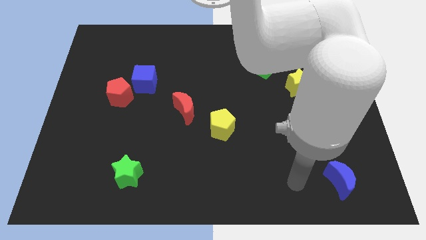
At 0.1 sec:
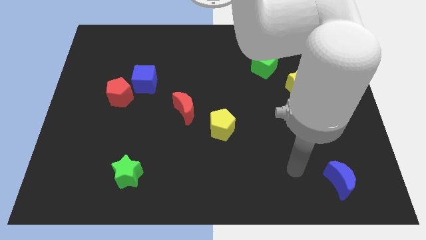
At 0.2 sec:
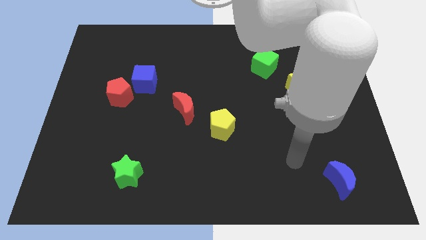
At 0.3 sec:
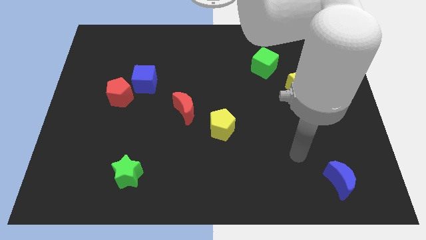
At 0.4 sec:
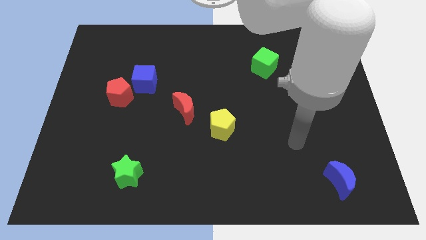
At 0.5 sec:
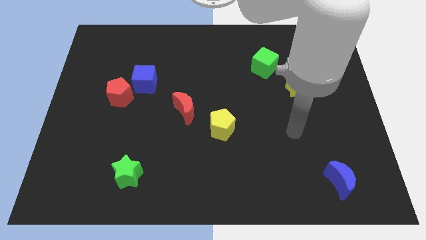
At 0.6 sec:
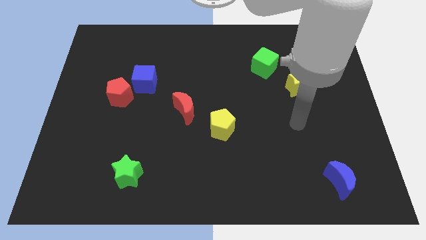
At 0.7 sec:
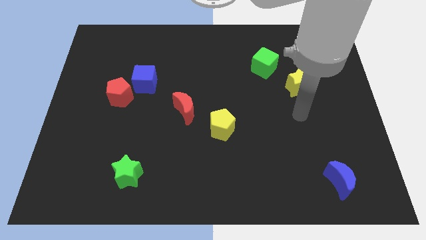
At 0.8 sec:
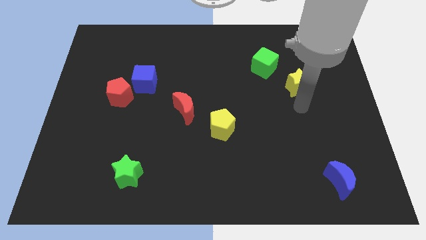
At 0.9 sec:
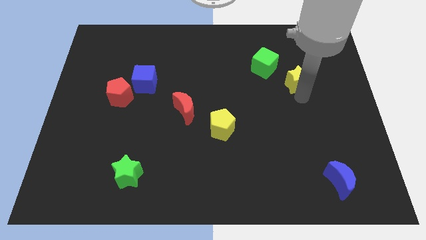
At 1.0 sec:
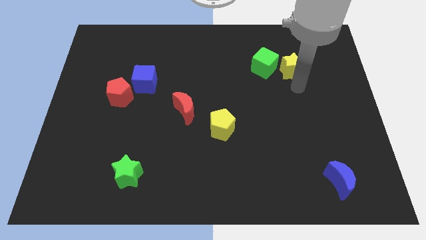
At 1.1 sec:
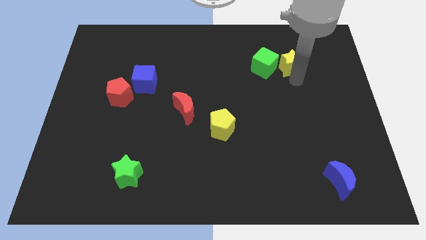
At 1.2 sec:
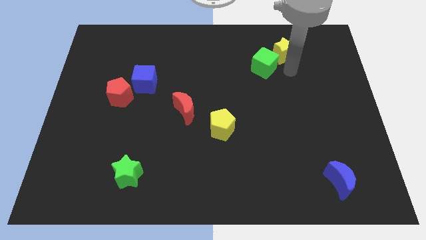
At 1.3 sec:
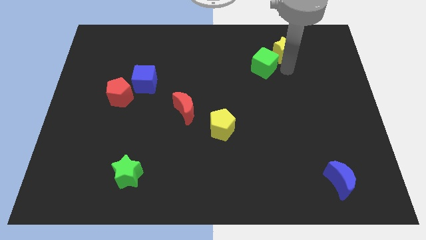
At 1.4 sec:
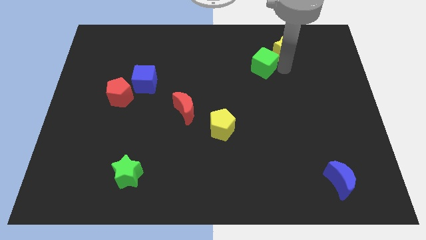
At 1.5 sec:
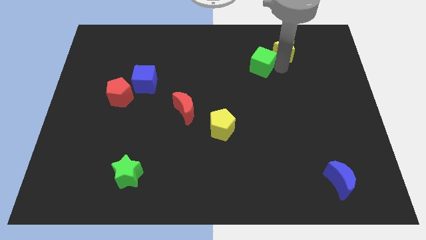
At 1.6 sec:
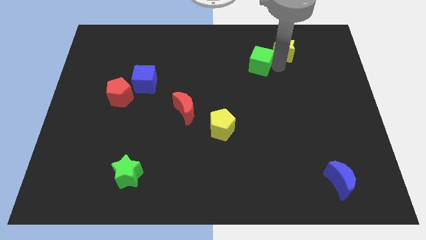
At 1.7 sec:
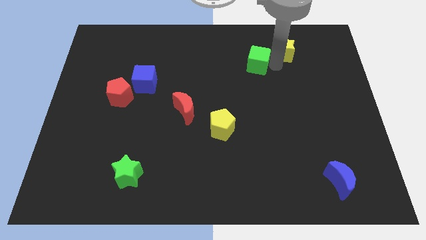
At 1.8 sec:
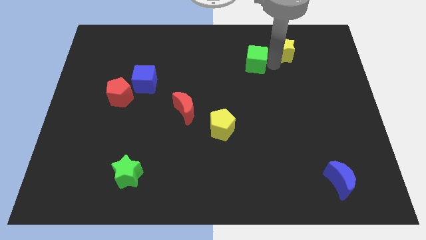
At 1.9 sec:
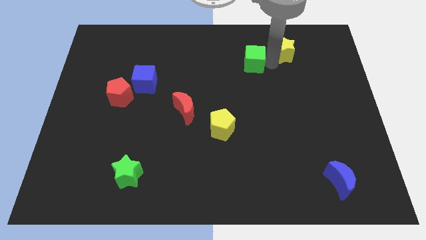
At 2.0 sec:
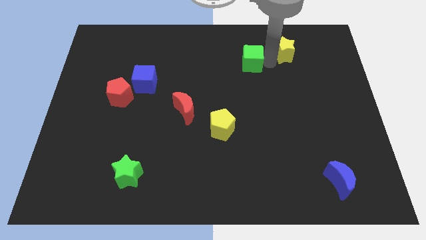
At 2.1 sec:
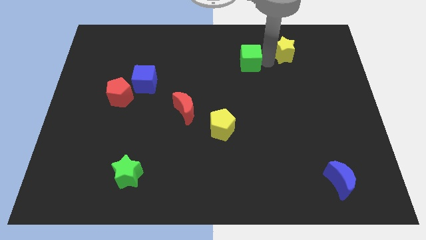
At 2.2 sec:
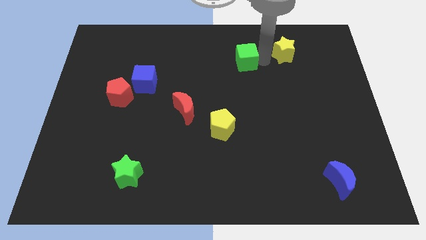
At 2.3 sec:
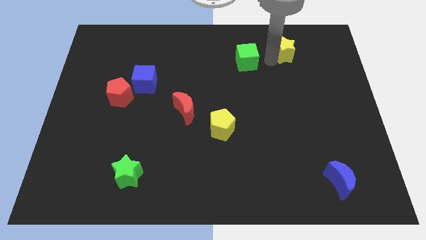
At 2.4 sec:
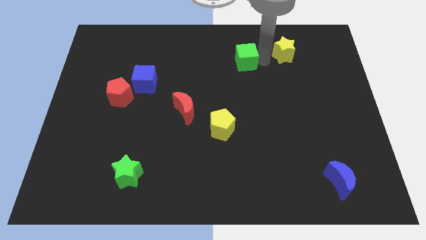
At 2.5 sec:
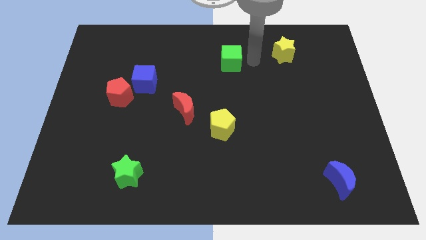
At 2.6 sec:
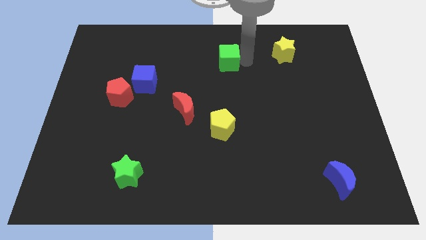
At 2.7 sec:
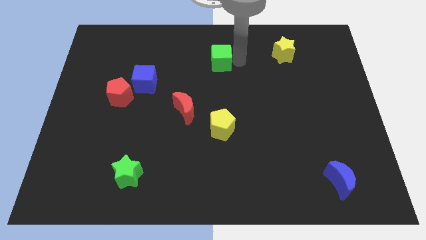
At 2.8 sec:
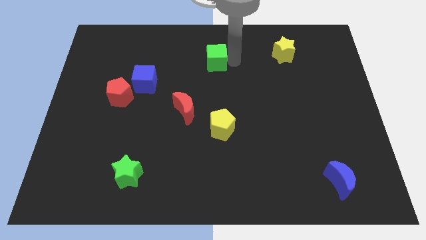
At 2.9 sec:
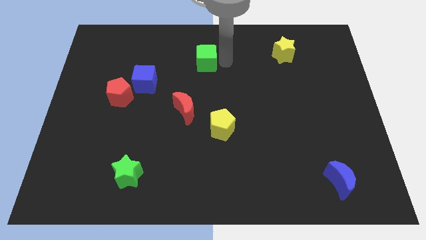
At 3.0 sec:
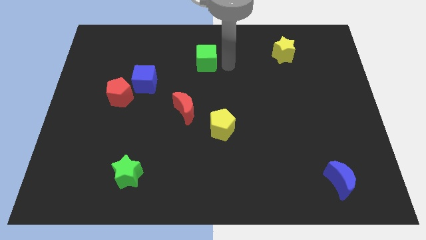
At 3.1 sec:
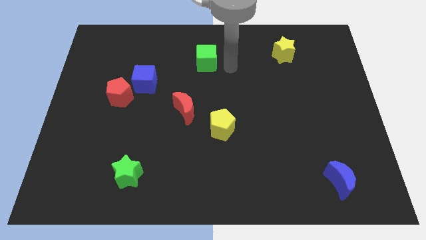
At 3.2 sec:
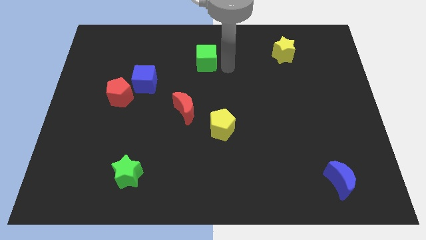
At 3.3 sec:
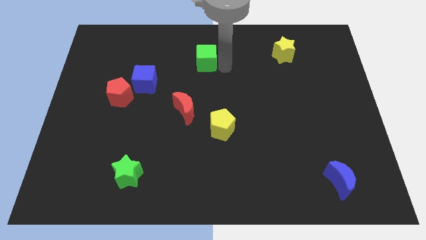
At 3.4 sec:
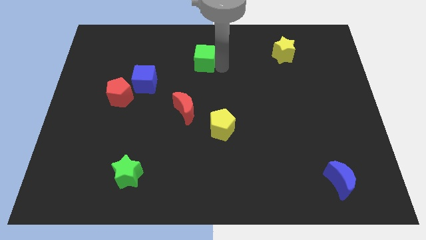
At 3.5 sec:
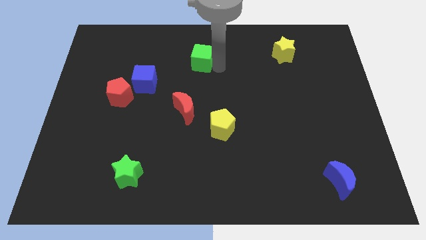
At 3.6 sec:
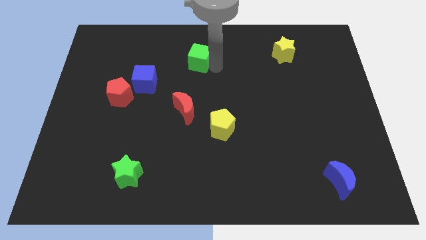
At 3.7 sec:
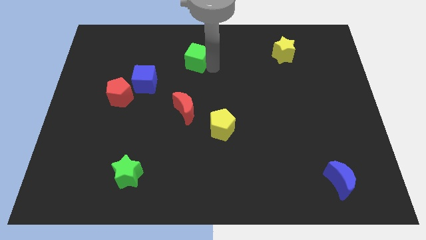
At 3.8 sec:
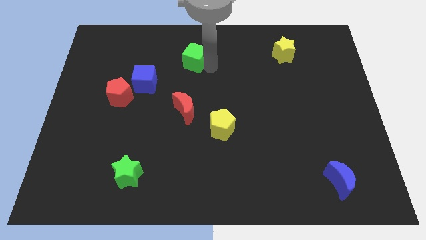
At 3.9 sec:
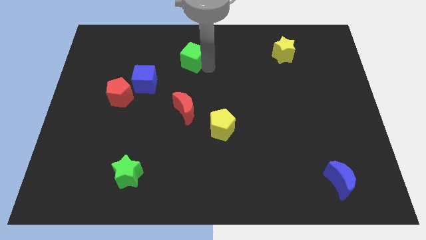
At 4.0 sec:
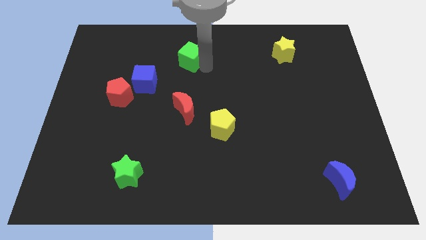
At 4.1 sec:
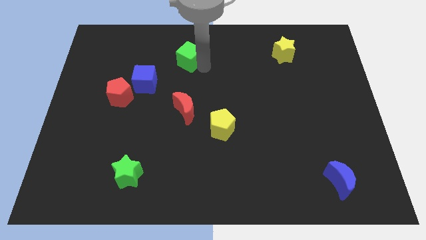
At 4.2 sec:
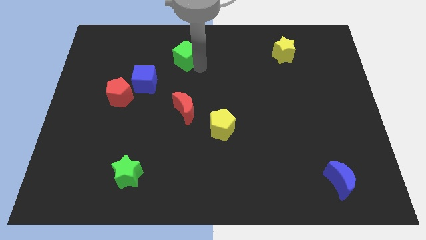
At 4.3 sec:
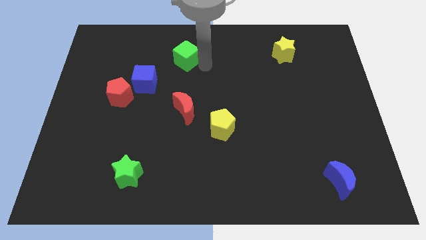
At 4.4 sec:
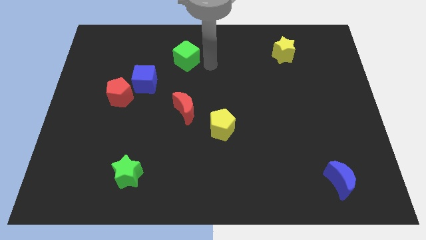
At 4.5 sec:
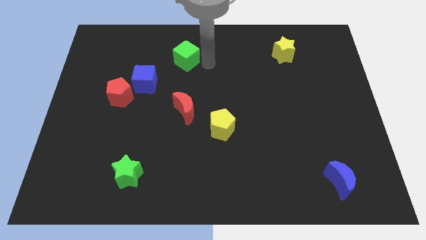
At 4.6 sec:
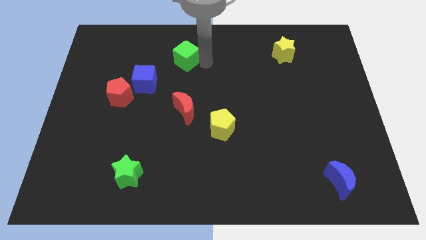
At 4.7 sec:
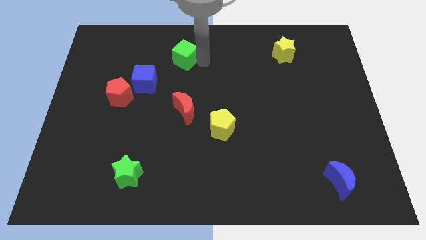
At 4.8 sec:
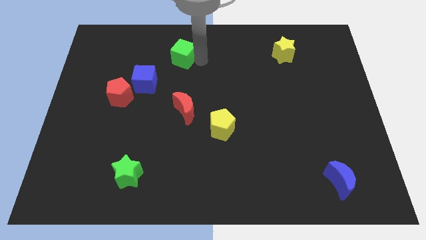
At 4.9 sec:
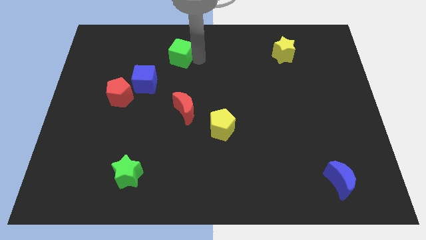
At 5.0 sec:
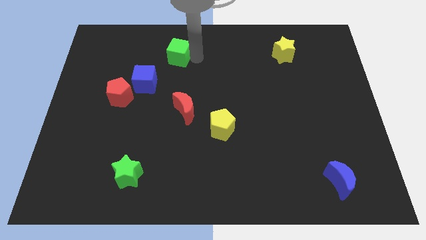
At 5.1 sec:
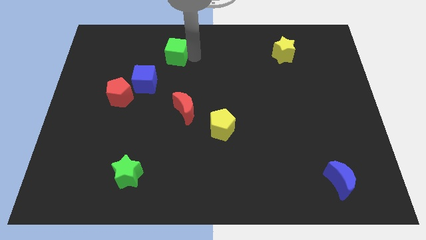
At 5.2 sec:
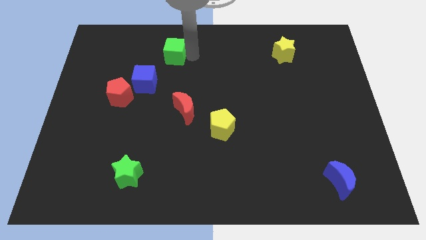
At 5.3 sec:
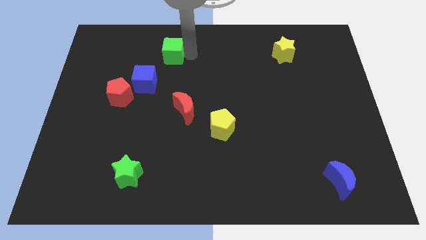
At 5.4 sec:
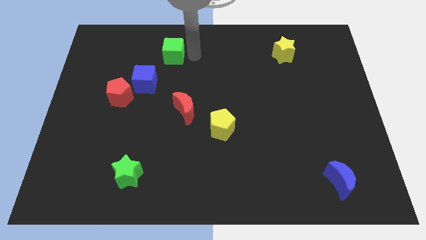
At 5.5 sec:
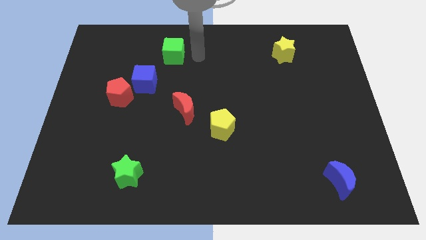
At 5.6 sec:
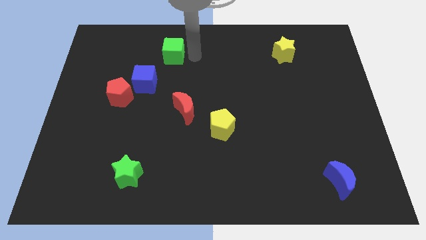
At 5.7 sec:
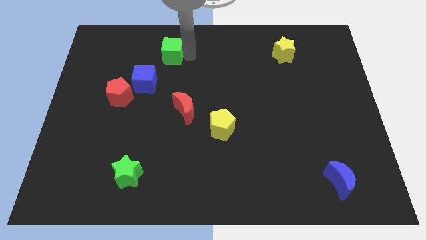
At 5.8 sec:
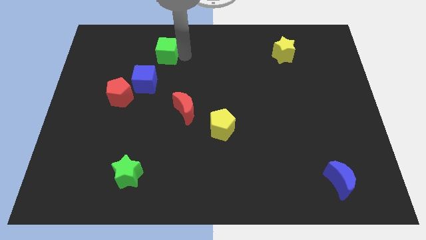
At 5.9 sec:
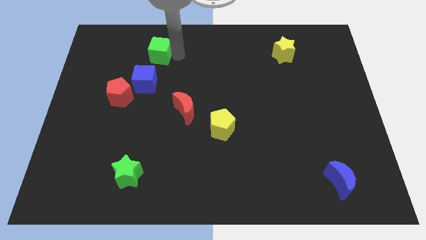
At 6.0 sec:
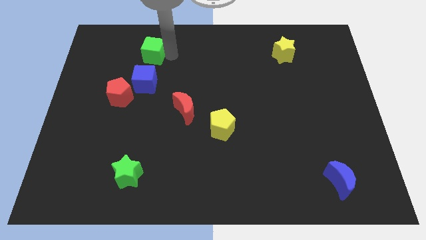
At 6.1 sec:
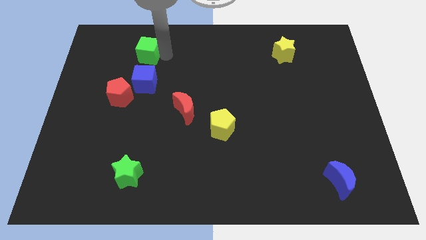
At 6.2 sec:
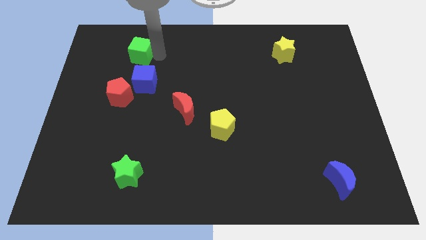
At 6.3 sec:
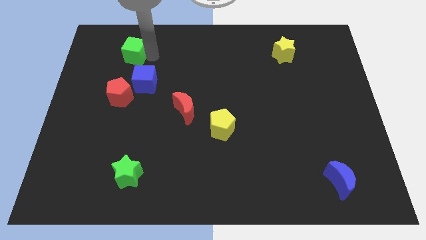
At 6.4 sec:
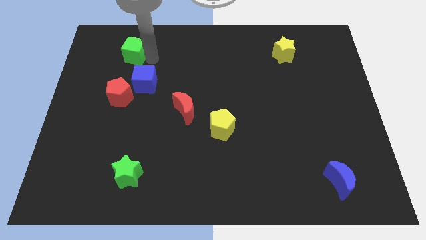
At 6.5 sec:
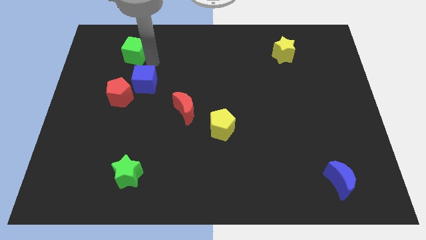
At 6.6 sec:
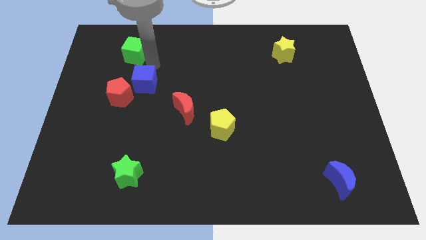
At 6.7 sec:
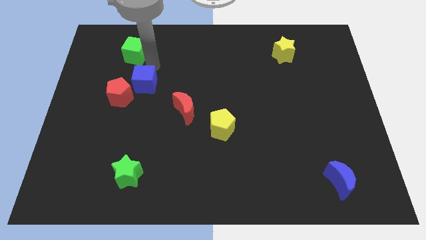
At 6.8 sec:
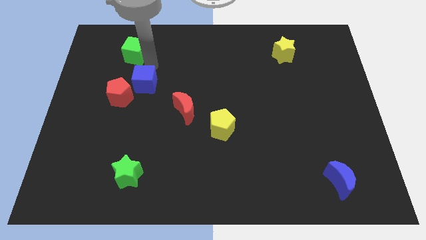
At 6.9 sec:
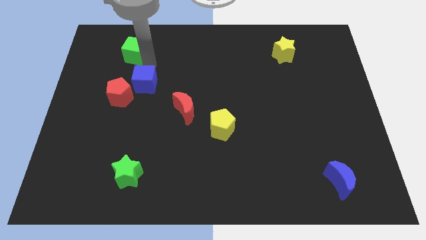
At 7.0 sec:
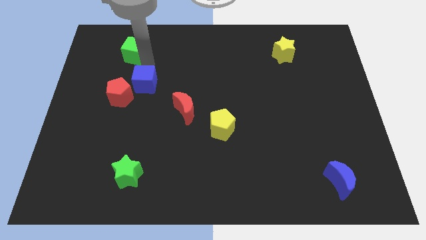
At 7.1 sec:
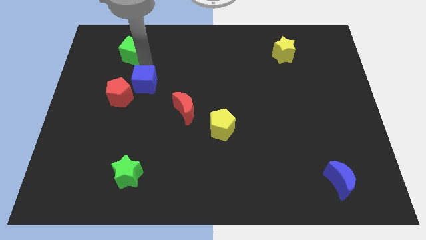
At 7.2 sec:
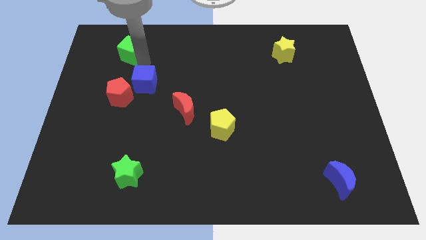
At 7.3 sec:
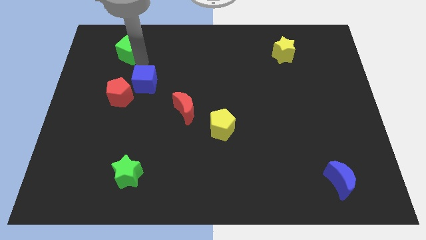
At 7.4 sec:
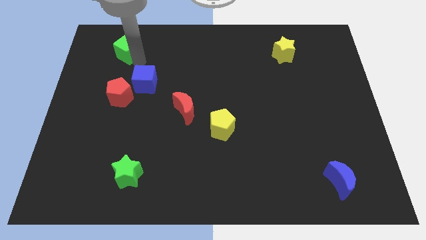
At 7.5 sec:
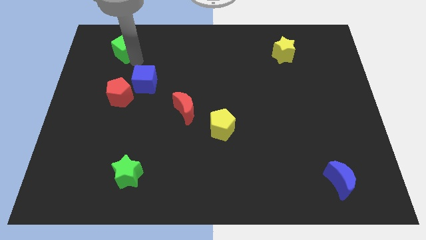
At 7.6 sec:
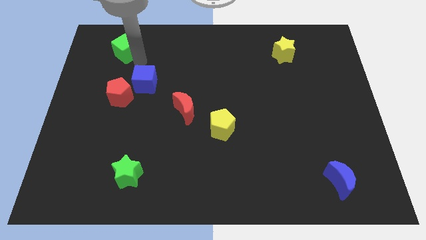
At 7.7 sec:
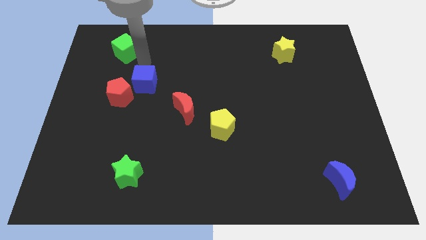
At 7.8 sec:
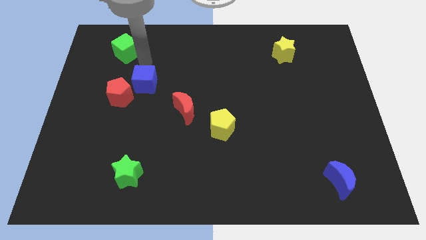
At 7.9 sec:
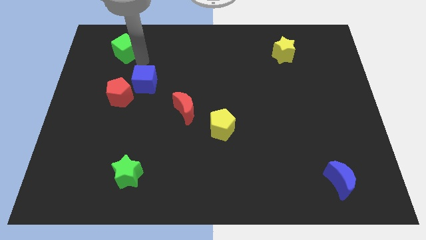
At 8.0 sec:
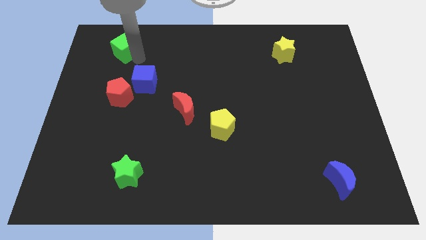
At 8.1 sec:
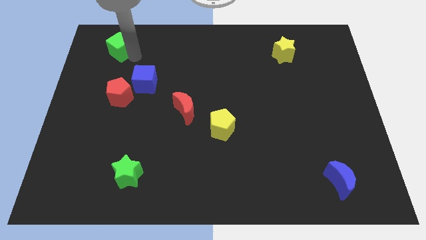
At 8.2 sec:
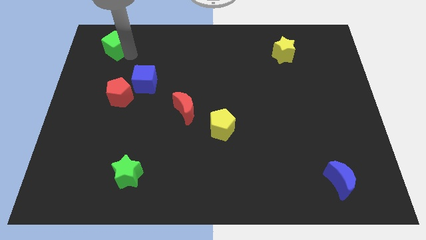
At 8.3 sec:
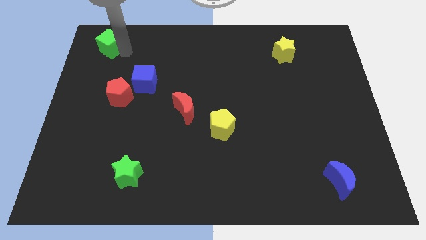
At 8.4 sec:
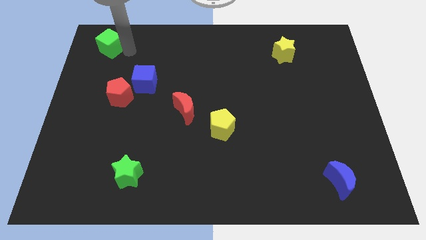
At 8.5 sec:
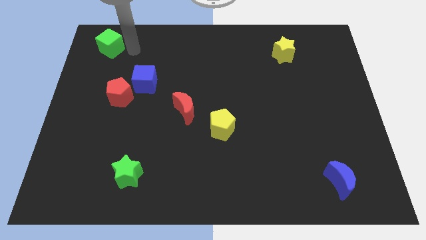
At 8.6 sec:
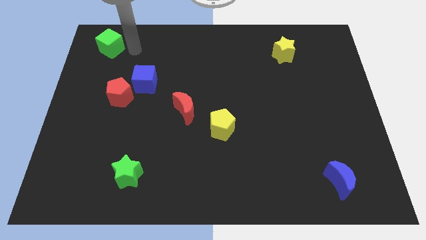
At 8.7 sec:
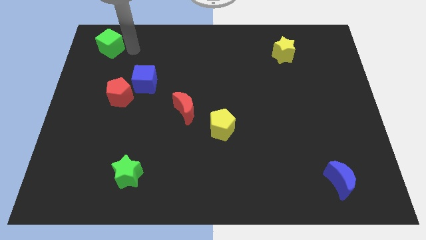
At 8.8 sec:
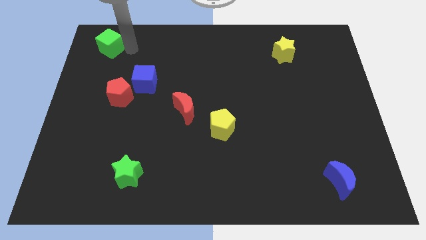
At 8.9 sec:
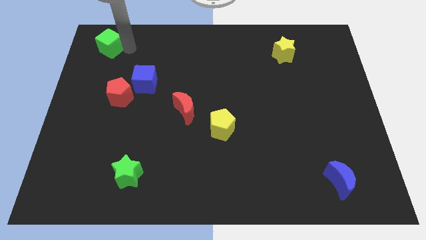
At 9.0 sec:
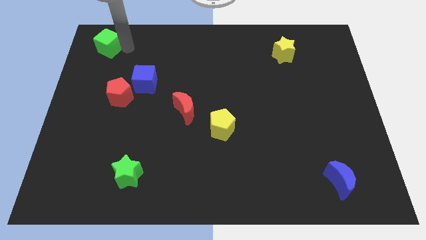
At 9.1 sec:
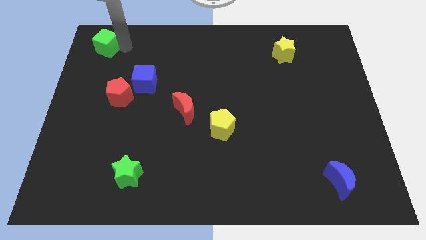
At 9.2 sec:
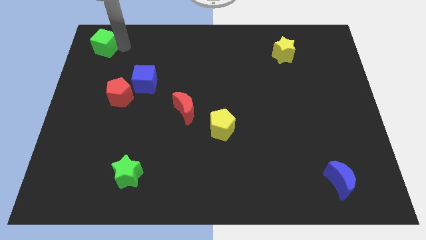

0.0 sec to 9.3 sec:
push the green cube to the upper left corner
